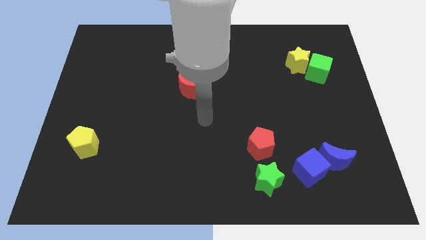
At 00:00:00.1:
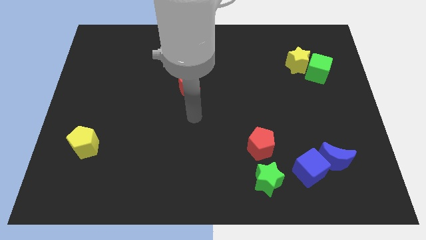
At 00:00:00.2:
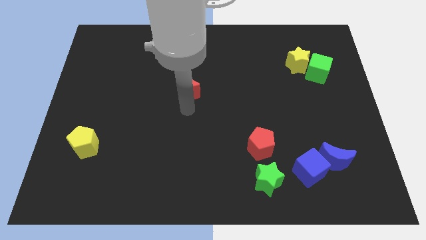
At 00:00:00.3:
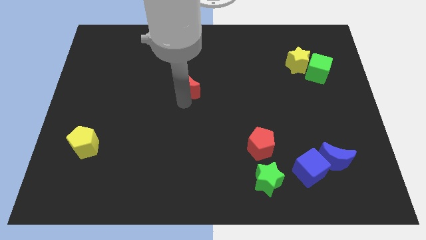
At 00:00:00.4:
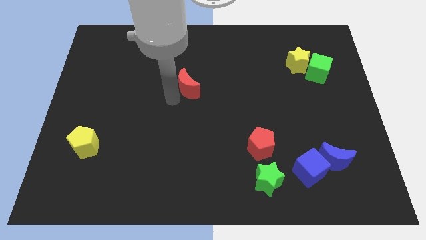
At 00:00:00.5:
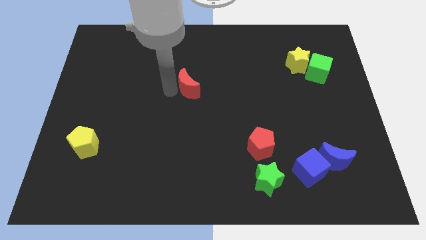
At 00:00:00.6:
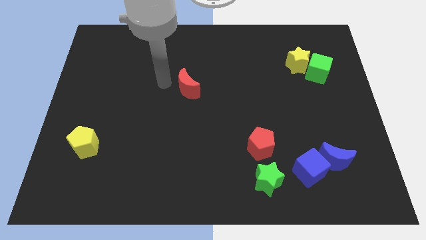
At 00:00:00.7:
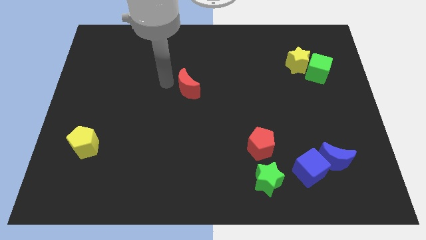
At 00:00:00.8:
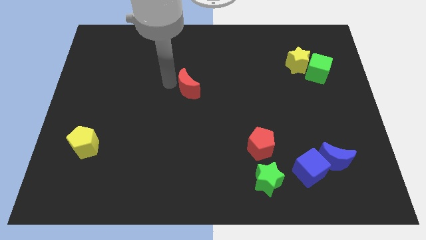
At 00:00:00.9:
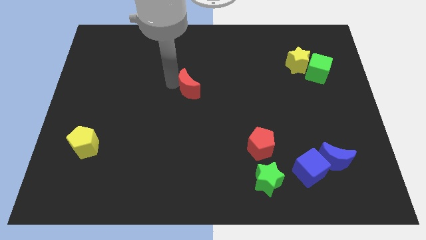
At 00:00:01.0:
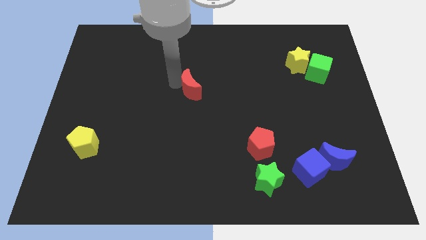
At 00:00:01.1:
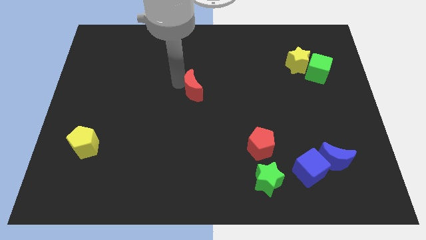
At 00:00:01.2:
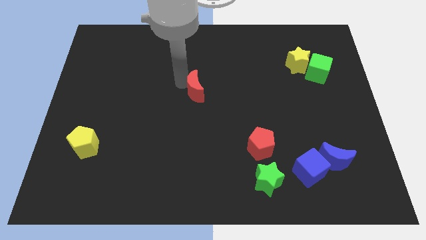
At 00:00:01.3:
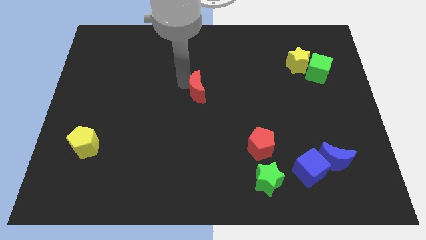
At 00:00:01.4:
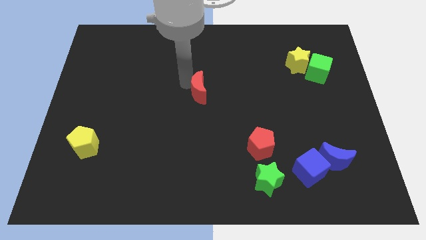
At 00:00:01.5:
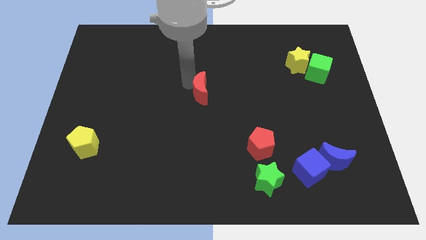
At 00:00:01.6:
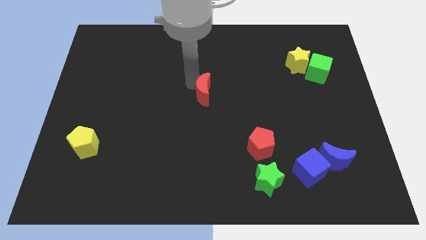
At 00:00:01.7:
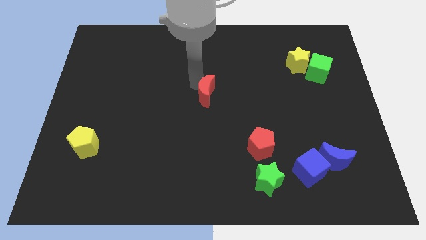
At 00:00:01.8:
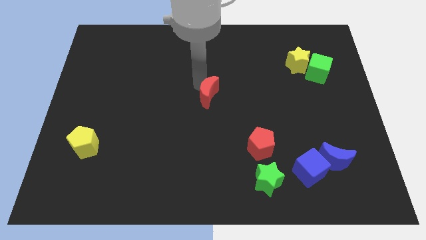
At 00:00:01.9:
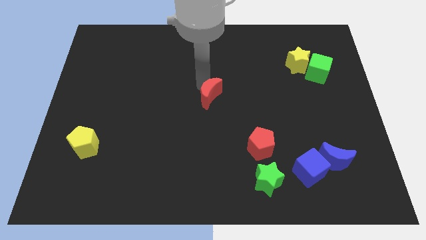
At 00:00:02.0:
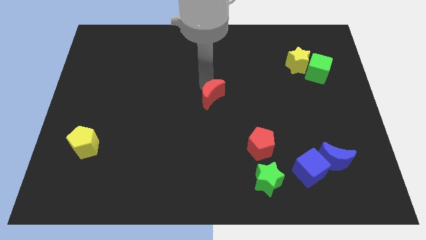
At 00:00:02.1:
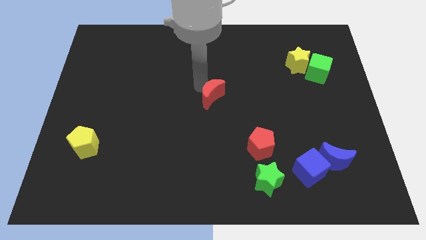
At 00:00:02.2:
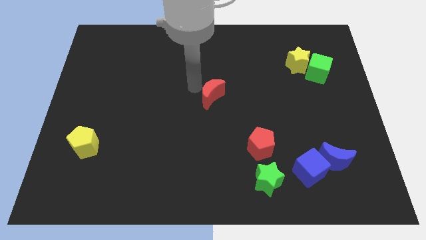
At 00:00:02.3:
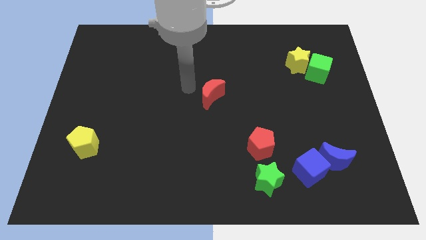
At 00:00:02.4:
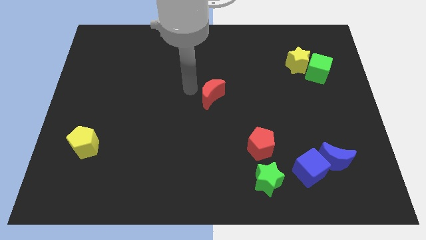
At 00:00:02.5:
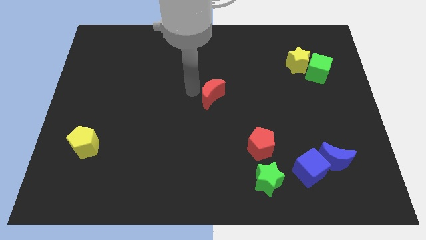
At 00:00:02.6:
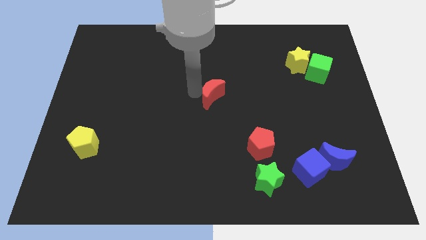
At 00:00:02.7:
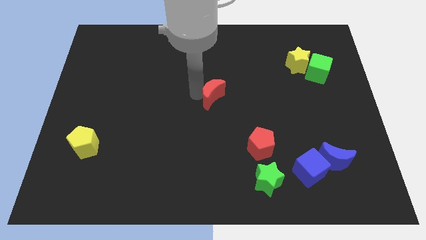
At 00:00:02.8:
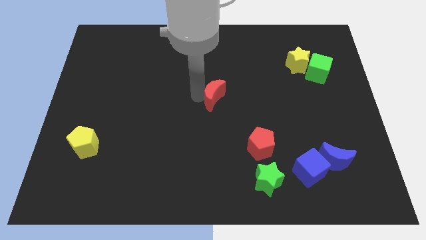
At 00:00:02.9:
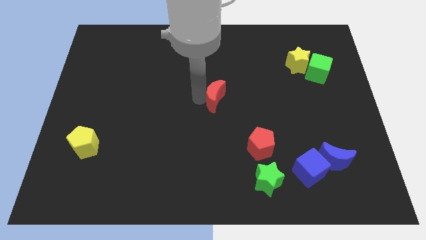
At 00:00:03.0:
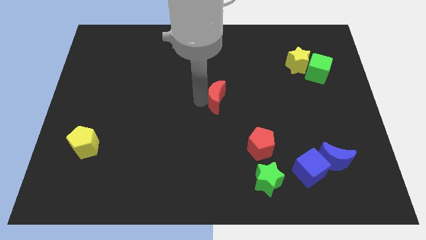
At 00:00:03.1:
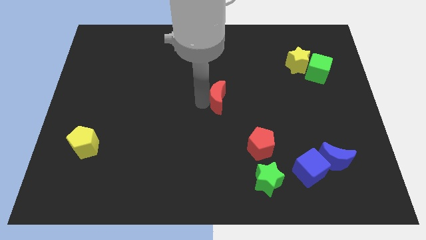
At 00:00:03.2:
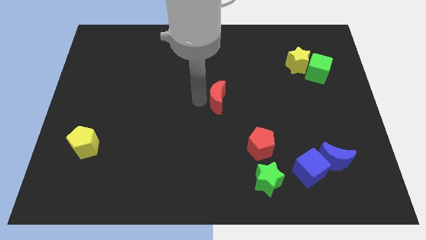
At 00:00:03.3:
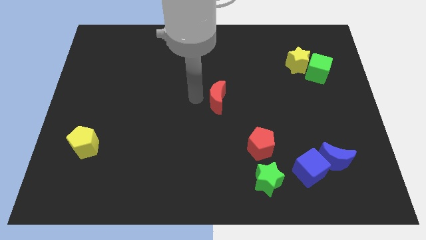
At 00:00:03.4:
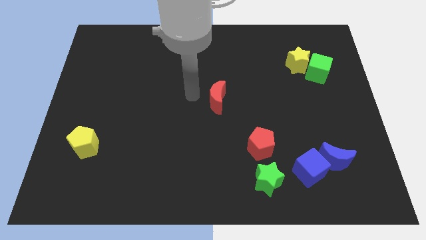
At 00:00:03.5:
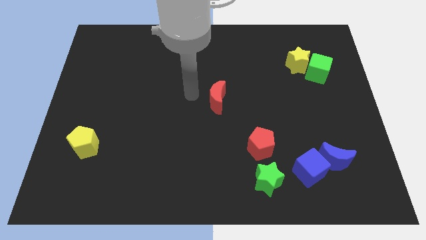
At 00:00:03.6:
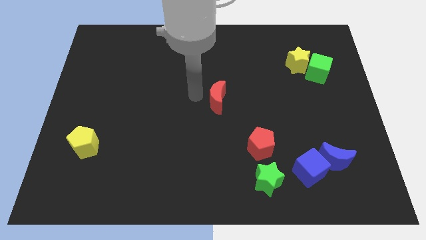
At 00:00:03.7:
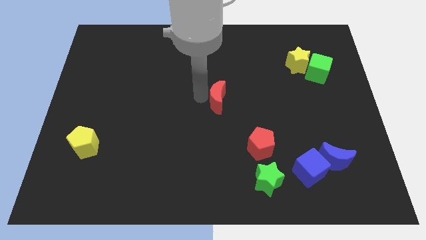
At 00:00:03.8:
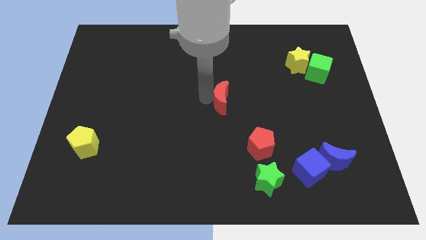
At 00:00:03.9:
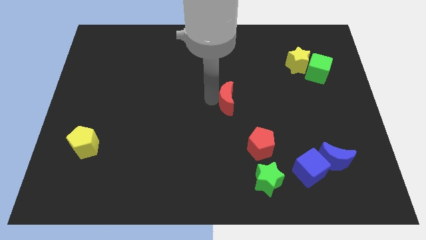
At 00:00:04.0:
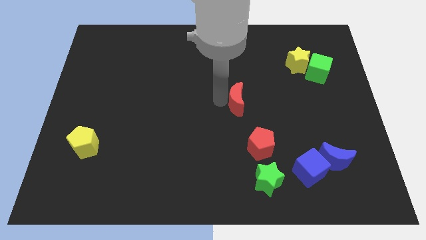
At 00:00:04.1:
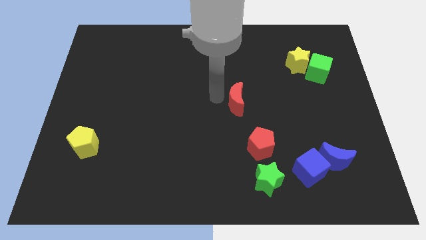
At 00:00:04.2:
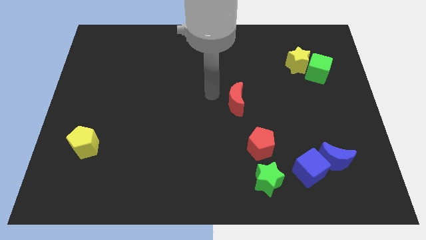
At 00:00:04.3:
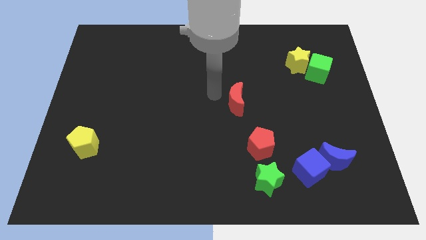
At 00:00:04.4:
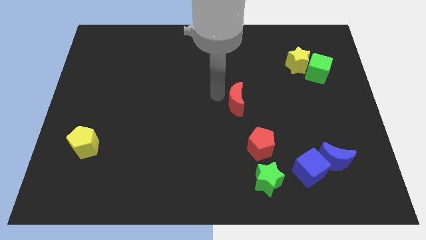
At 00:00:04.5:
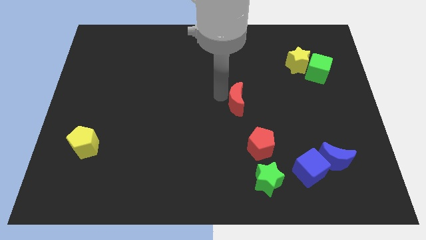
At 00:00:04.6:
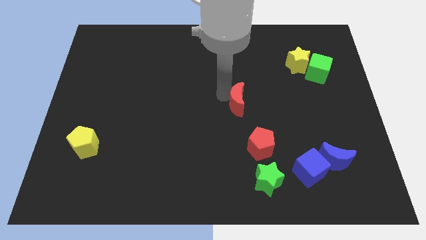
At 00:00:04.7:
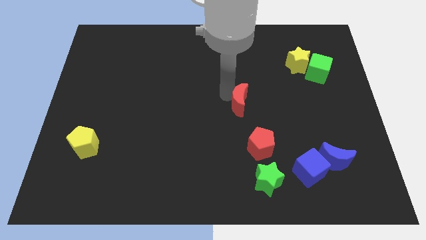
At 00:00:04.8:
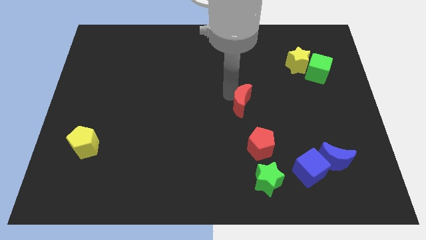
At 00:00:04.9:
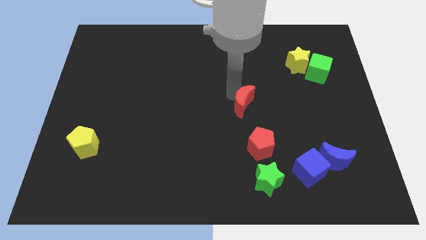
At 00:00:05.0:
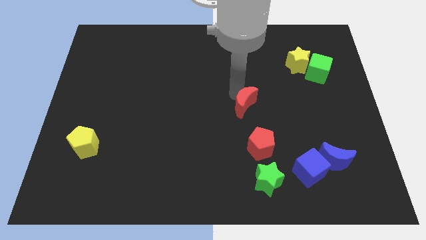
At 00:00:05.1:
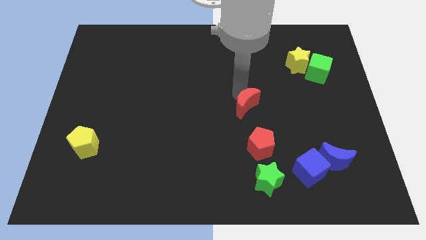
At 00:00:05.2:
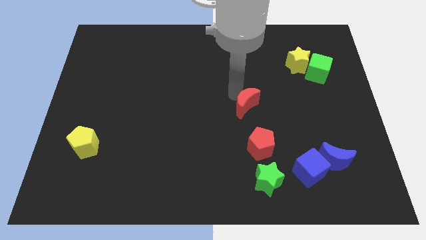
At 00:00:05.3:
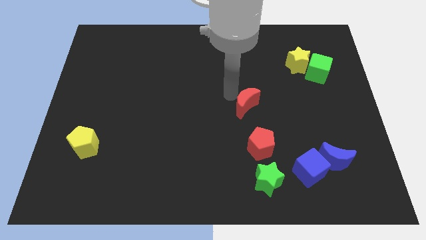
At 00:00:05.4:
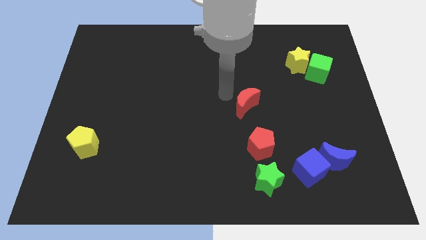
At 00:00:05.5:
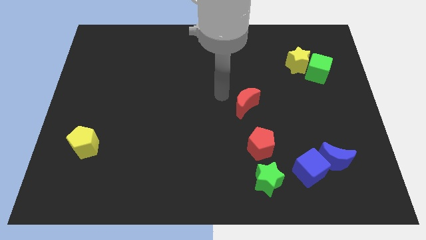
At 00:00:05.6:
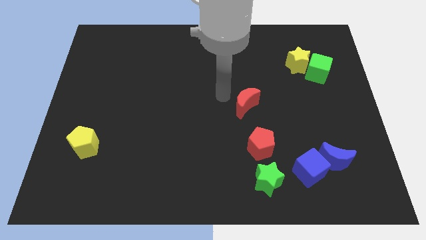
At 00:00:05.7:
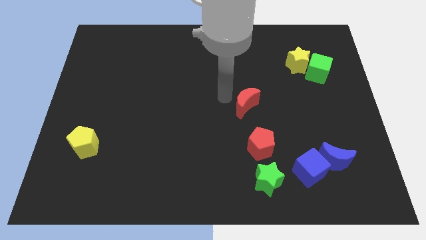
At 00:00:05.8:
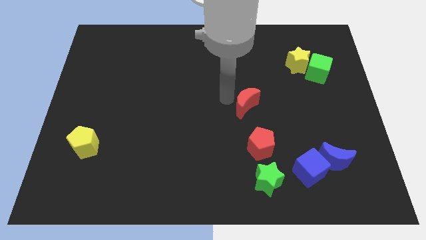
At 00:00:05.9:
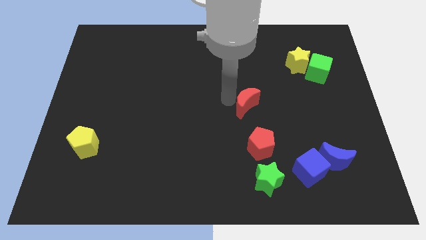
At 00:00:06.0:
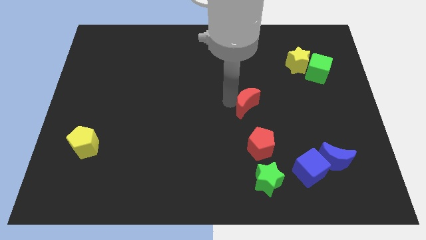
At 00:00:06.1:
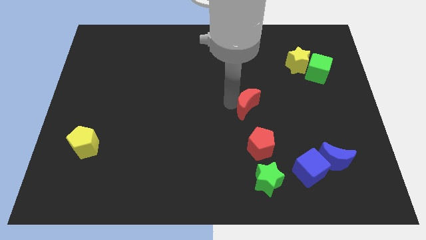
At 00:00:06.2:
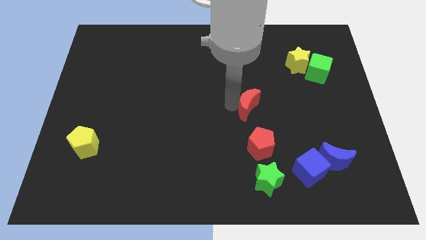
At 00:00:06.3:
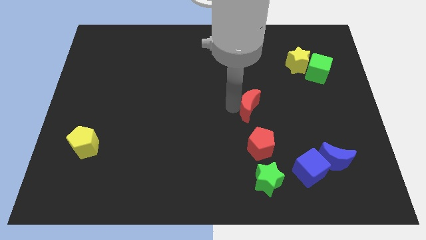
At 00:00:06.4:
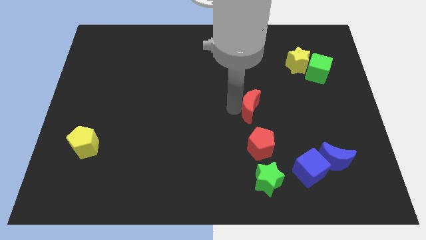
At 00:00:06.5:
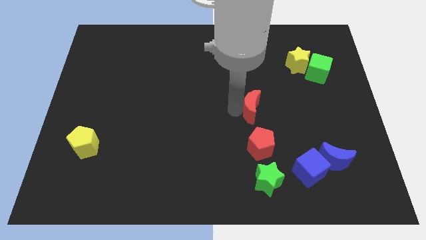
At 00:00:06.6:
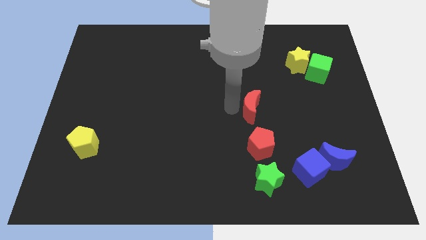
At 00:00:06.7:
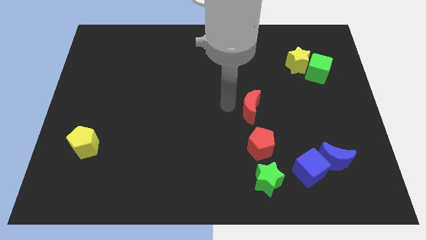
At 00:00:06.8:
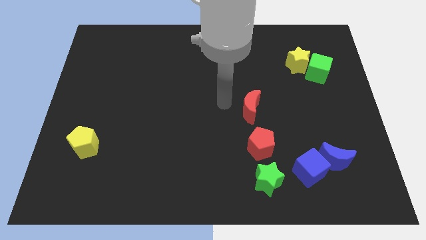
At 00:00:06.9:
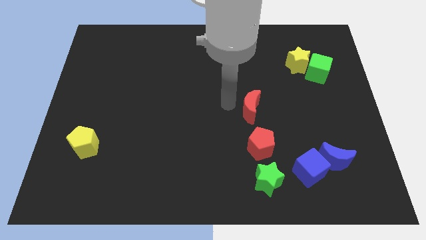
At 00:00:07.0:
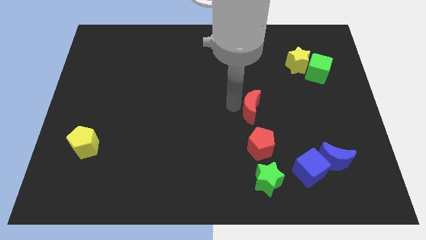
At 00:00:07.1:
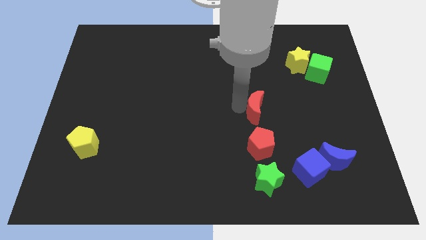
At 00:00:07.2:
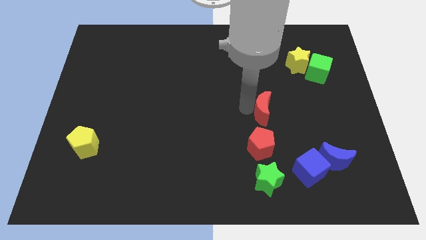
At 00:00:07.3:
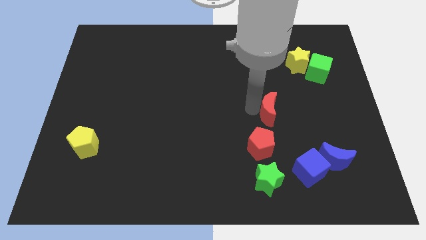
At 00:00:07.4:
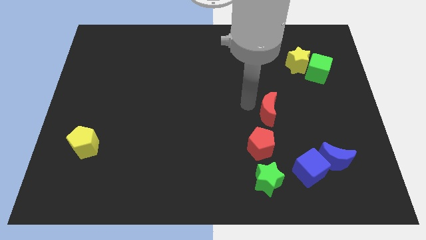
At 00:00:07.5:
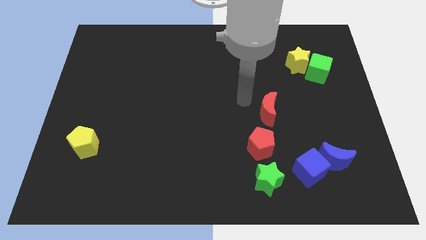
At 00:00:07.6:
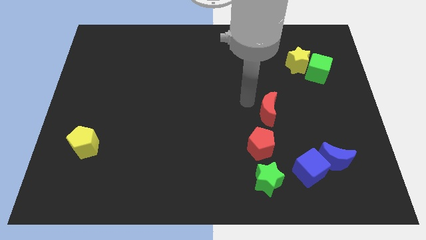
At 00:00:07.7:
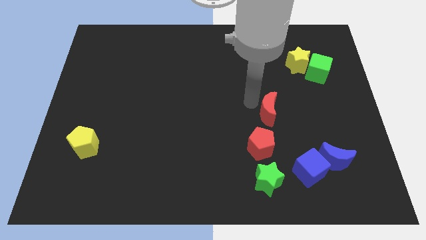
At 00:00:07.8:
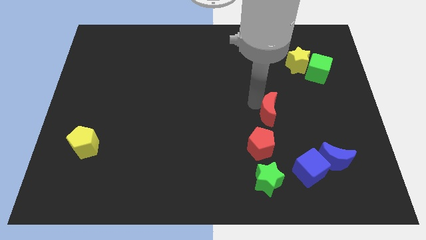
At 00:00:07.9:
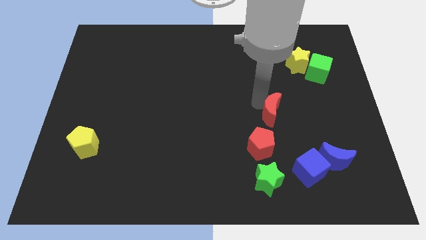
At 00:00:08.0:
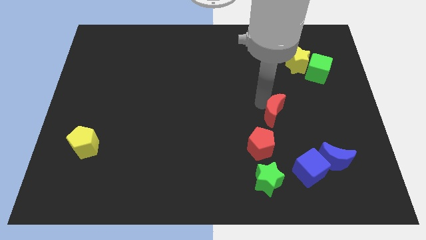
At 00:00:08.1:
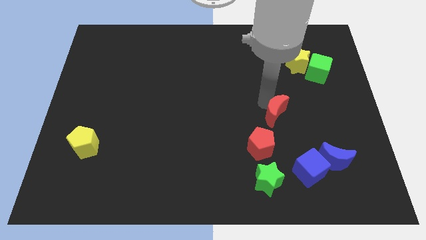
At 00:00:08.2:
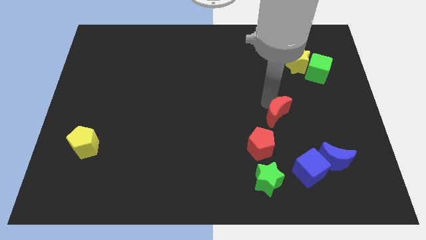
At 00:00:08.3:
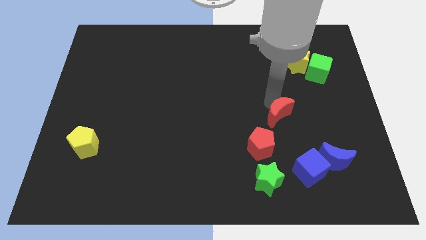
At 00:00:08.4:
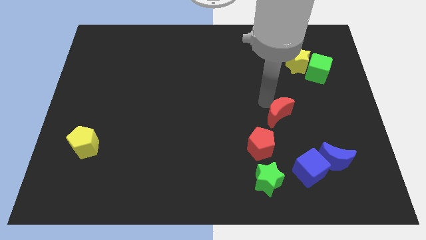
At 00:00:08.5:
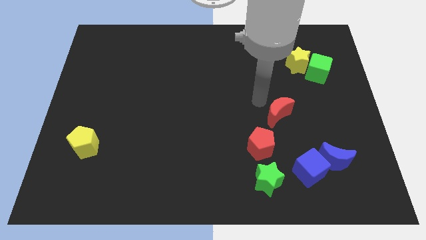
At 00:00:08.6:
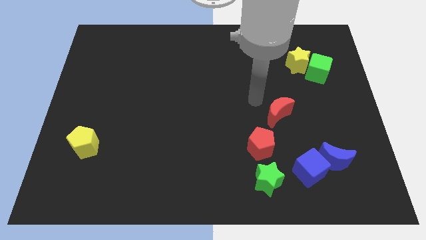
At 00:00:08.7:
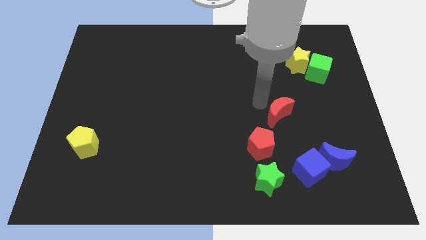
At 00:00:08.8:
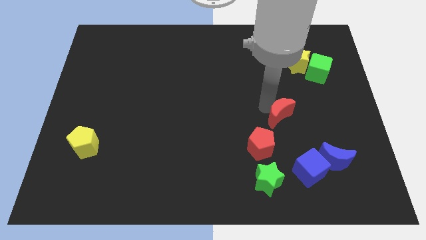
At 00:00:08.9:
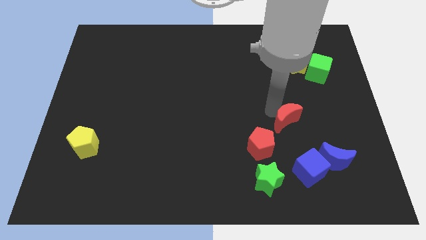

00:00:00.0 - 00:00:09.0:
put the red moon to the top side of the blue cube
